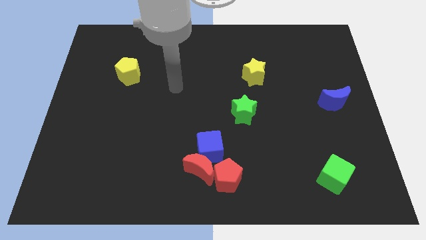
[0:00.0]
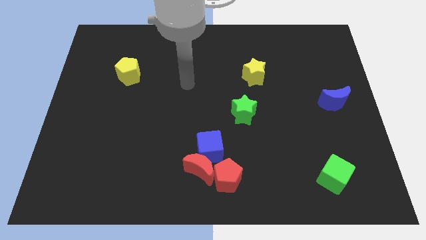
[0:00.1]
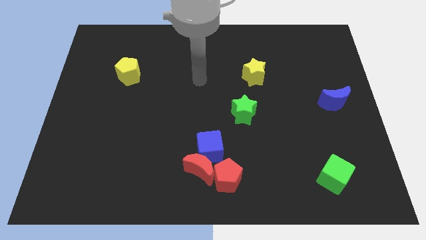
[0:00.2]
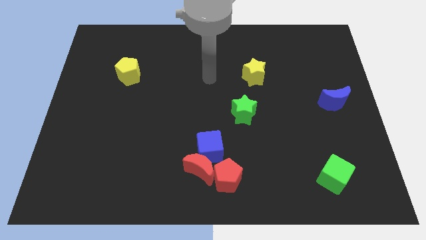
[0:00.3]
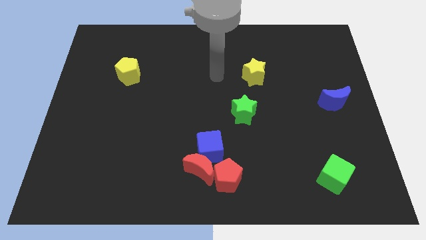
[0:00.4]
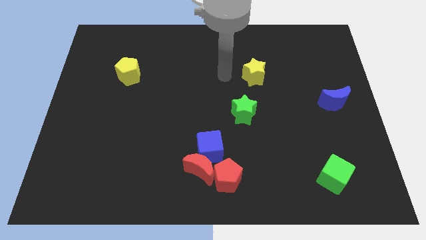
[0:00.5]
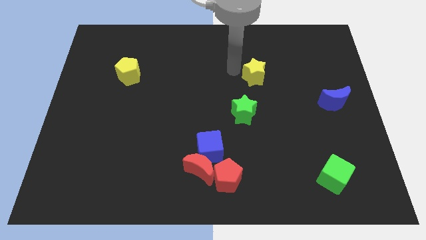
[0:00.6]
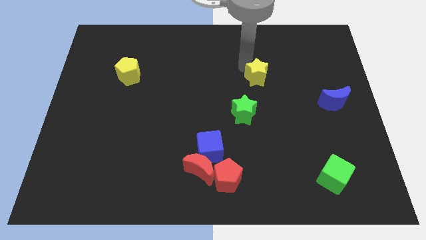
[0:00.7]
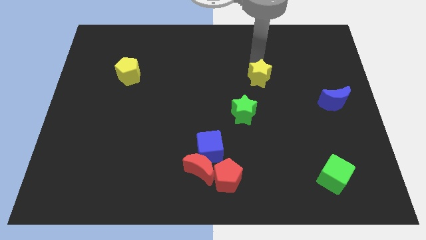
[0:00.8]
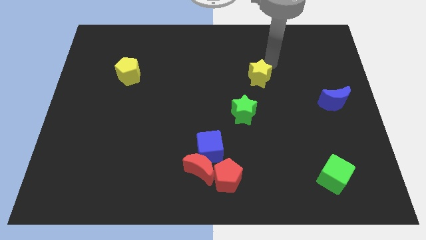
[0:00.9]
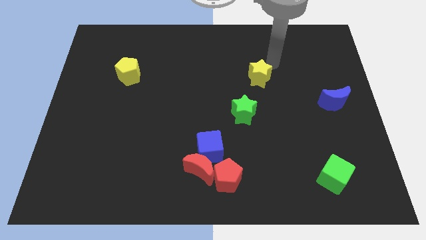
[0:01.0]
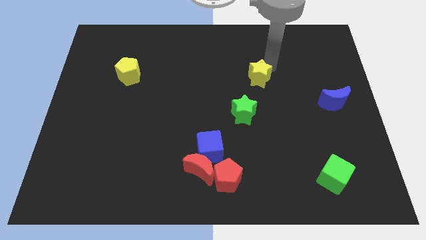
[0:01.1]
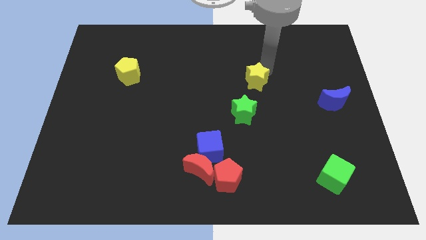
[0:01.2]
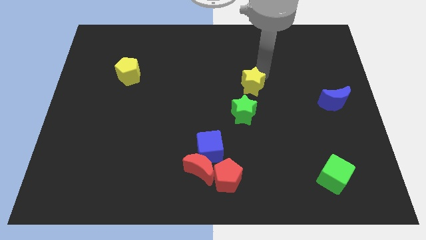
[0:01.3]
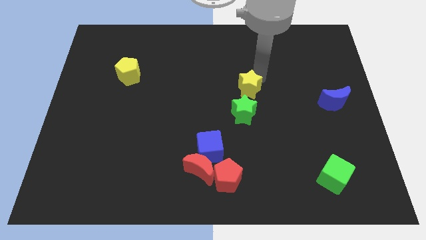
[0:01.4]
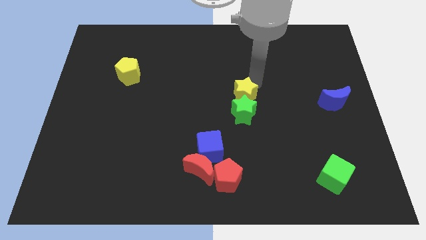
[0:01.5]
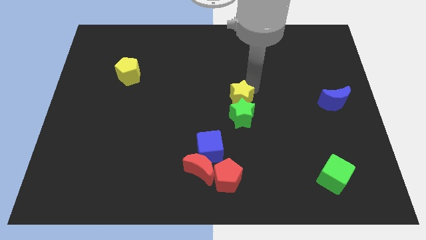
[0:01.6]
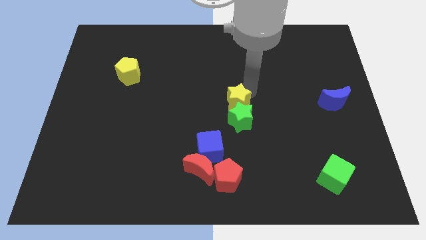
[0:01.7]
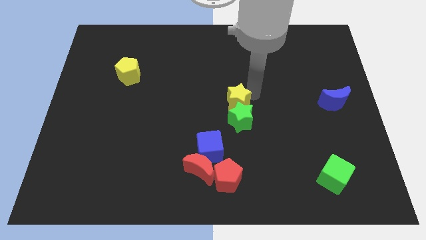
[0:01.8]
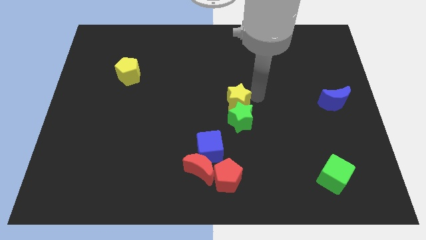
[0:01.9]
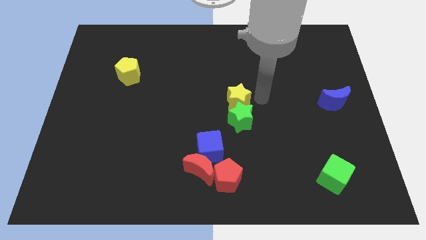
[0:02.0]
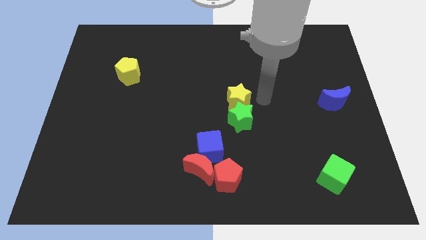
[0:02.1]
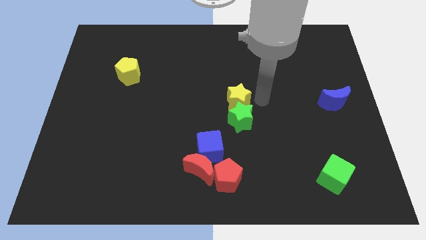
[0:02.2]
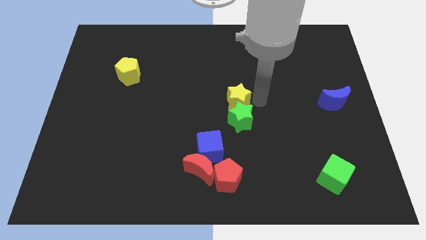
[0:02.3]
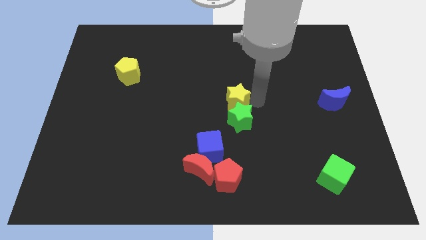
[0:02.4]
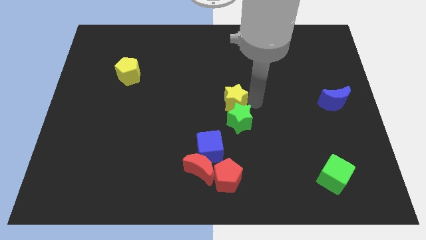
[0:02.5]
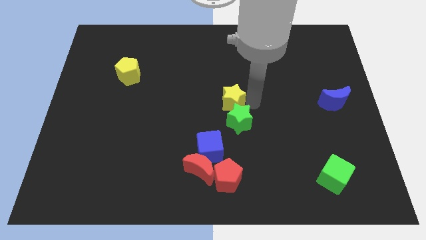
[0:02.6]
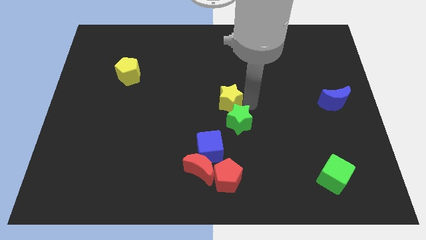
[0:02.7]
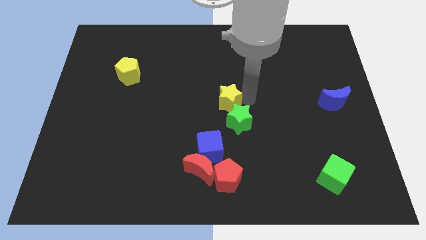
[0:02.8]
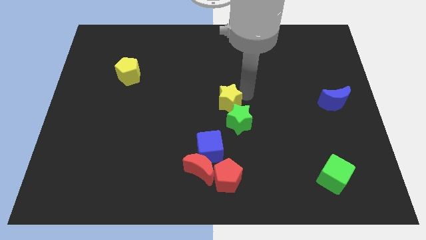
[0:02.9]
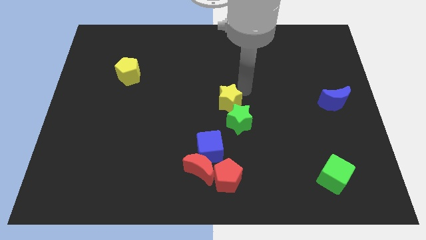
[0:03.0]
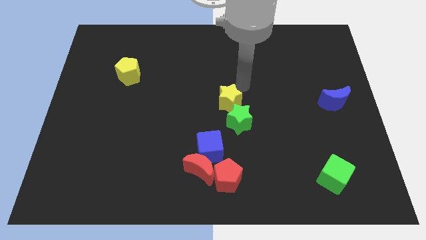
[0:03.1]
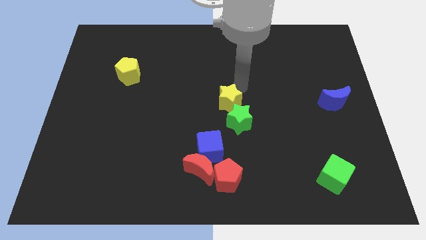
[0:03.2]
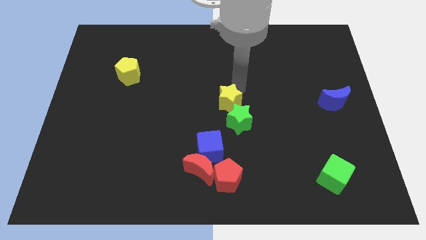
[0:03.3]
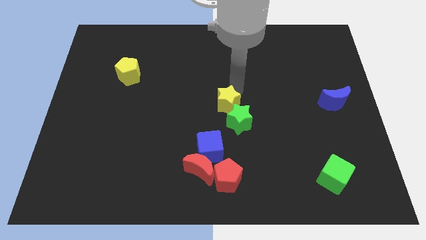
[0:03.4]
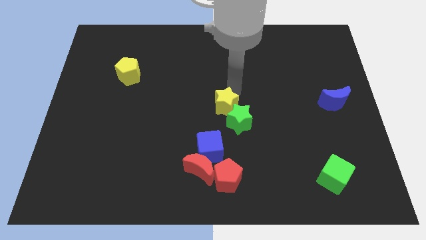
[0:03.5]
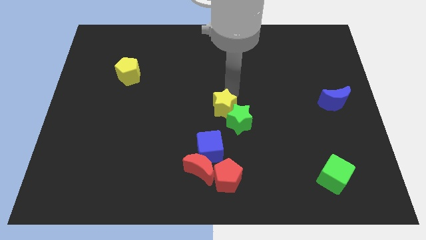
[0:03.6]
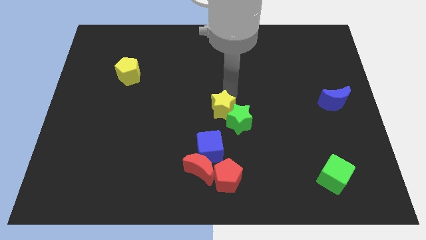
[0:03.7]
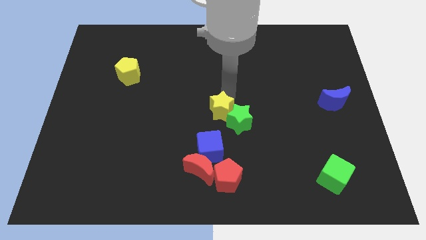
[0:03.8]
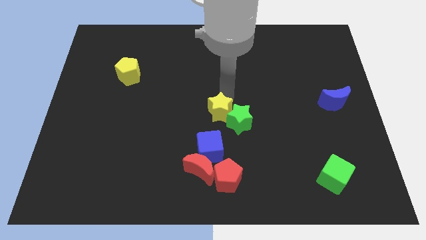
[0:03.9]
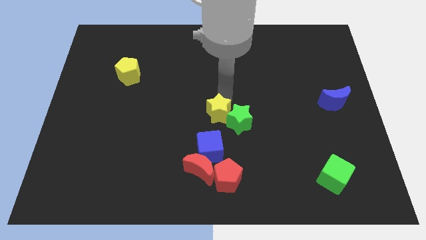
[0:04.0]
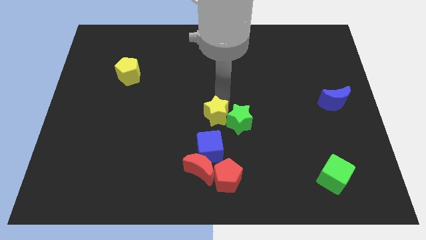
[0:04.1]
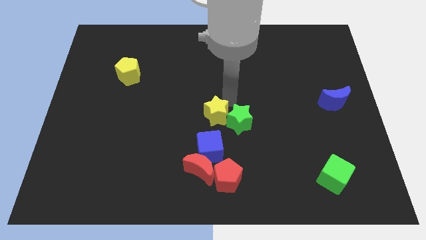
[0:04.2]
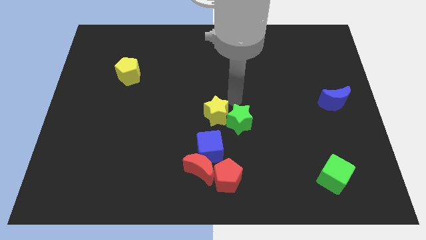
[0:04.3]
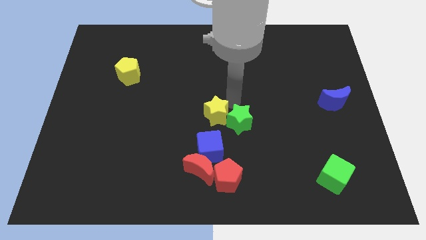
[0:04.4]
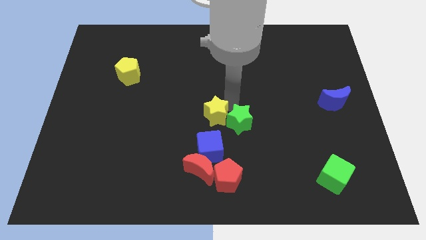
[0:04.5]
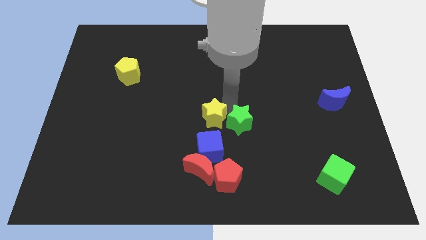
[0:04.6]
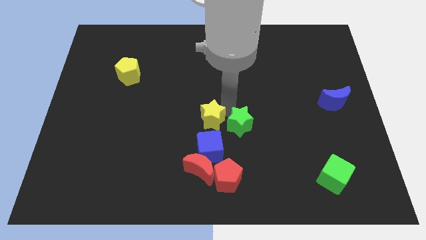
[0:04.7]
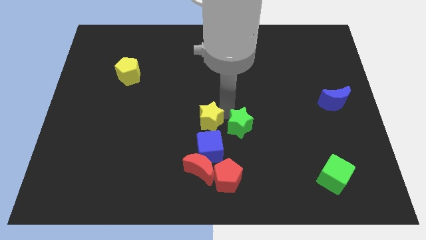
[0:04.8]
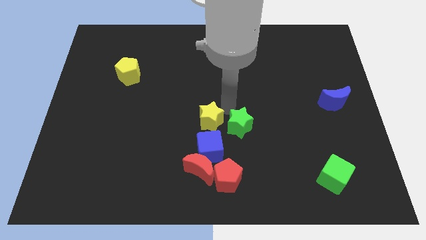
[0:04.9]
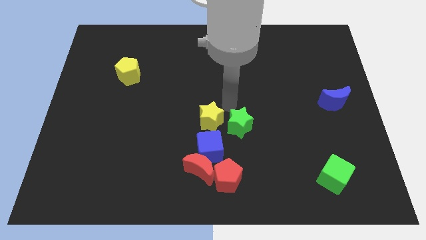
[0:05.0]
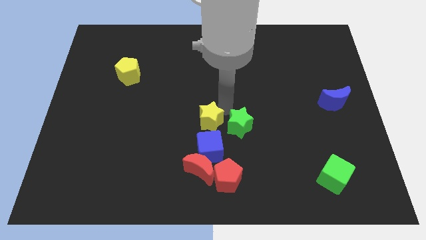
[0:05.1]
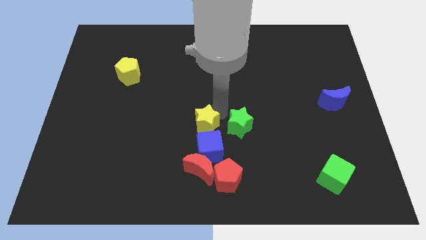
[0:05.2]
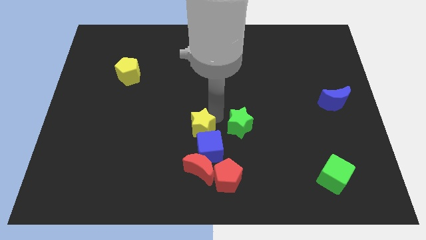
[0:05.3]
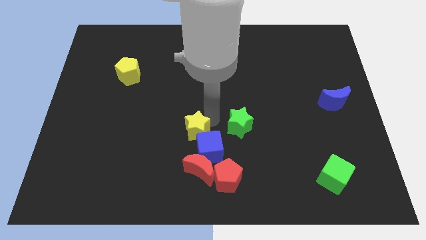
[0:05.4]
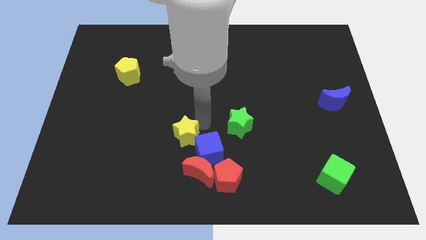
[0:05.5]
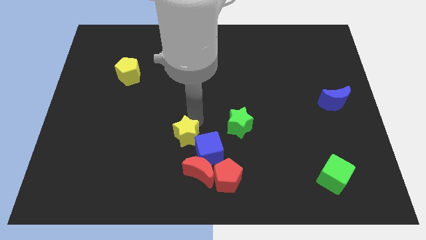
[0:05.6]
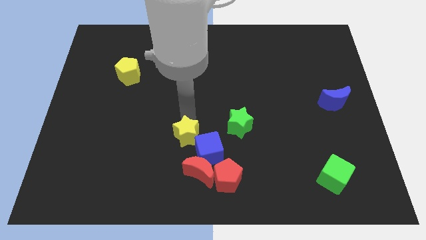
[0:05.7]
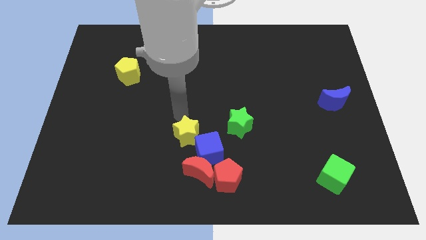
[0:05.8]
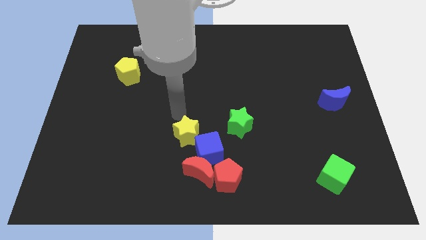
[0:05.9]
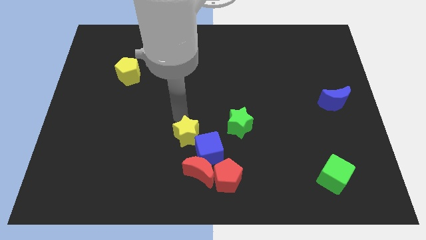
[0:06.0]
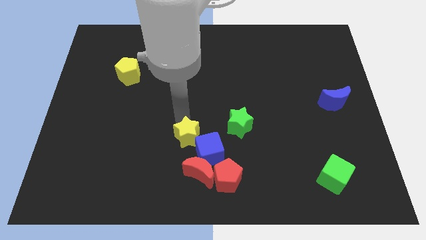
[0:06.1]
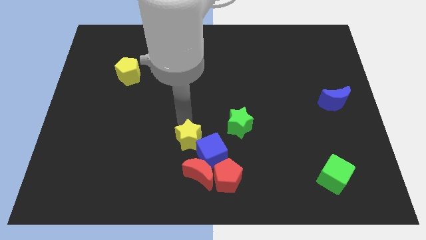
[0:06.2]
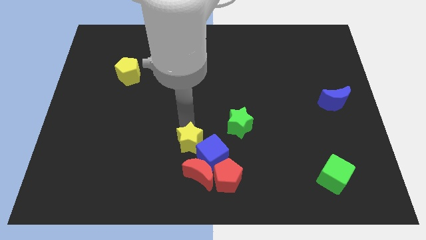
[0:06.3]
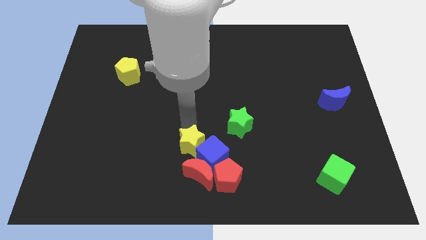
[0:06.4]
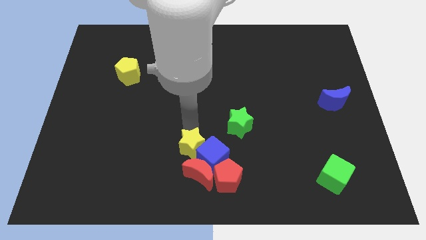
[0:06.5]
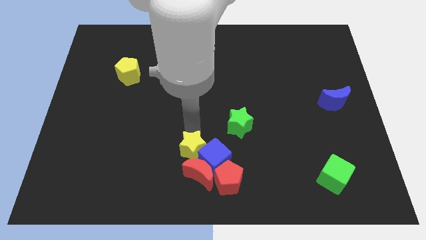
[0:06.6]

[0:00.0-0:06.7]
move the yellow star to the red moon

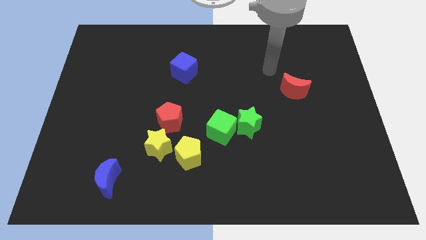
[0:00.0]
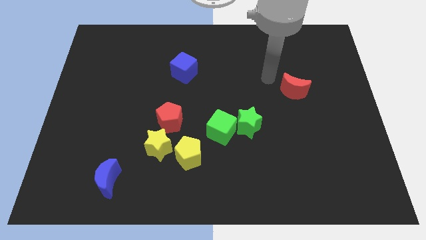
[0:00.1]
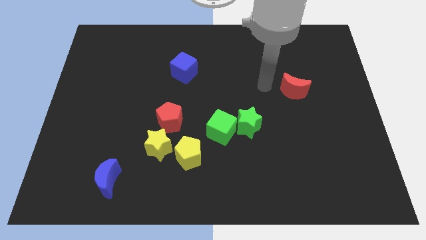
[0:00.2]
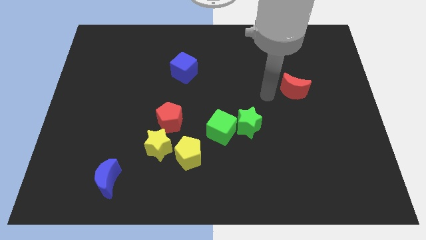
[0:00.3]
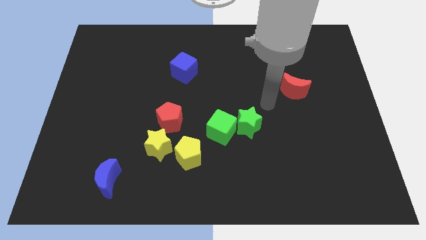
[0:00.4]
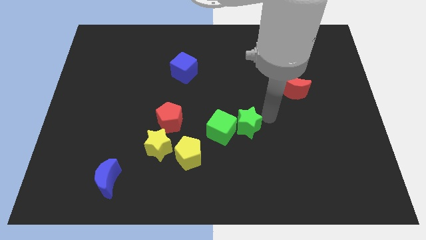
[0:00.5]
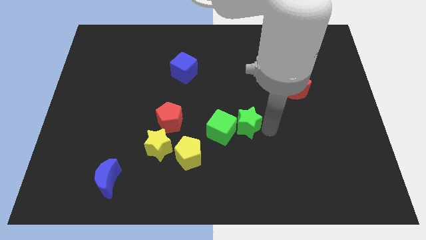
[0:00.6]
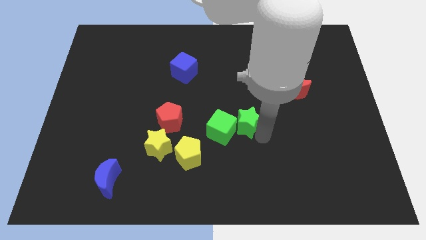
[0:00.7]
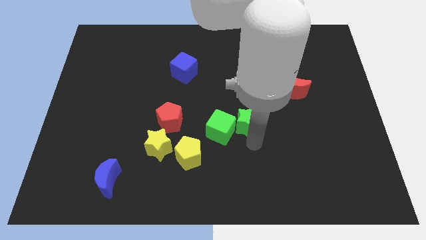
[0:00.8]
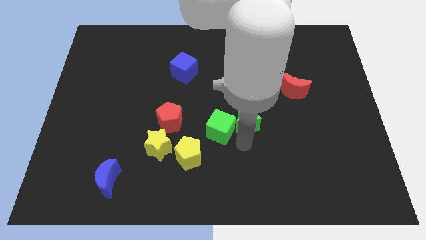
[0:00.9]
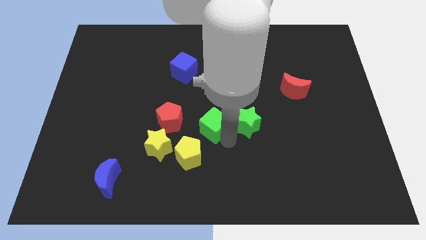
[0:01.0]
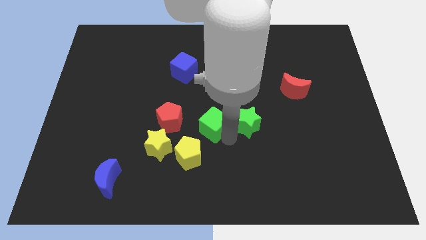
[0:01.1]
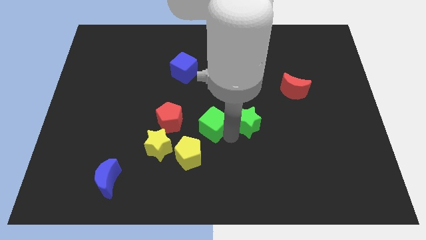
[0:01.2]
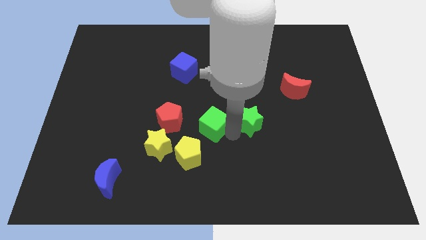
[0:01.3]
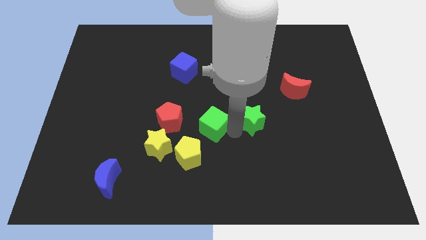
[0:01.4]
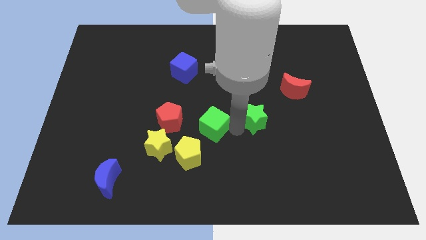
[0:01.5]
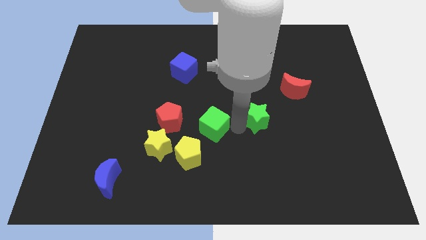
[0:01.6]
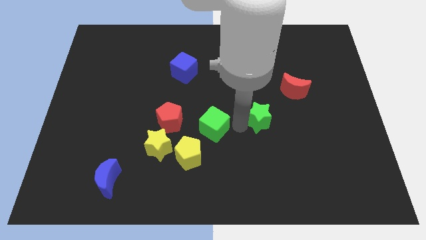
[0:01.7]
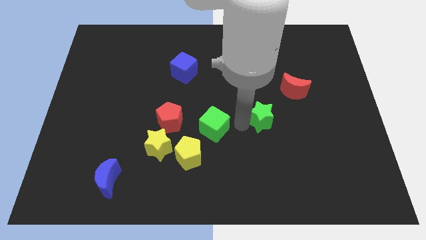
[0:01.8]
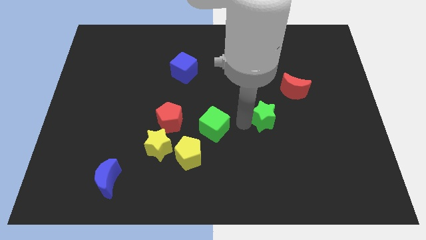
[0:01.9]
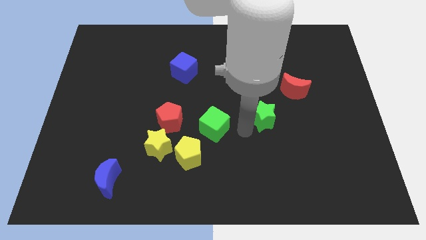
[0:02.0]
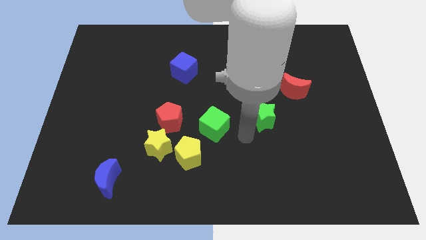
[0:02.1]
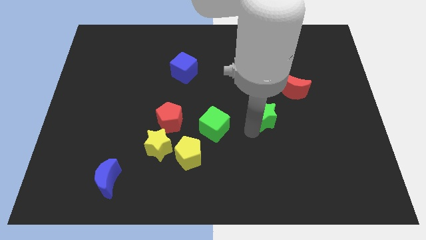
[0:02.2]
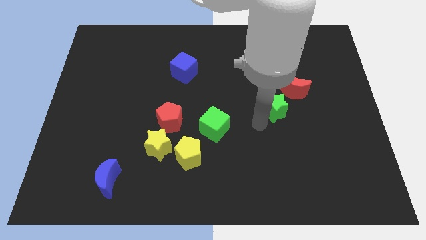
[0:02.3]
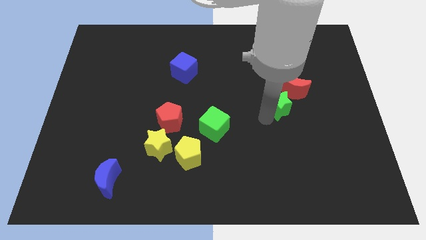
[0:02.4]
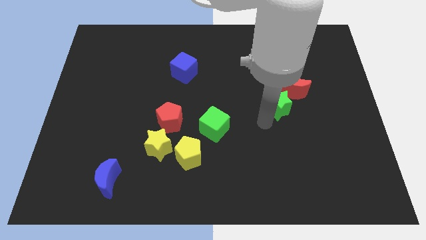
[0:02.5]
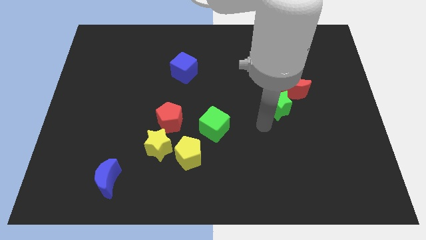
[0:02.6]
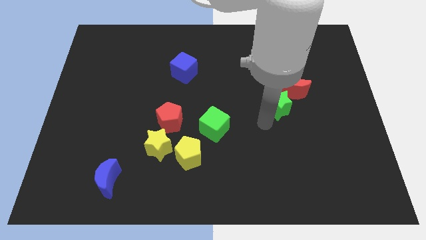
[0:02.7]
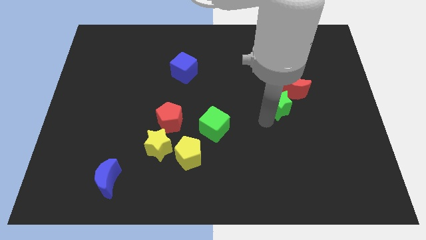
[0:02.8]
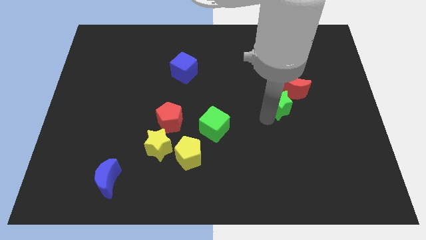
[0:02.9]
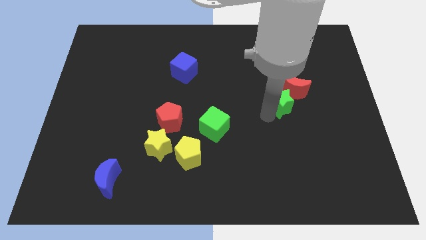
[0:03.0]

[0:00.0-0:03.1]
move the green star to the red moon
